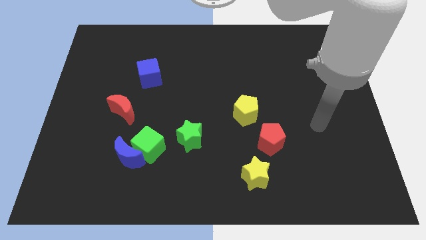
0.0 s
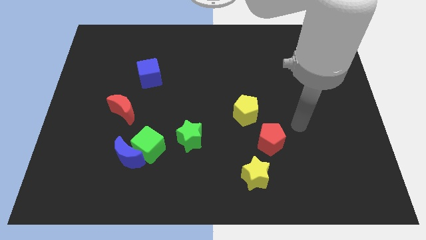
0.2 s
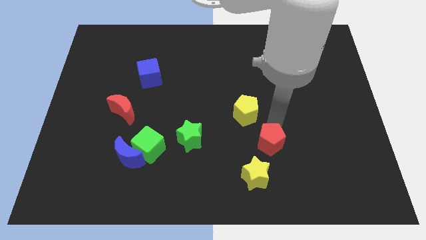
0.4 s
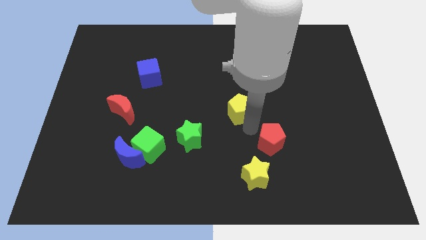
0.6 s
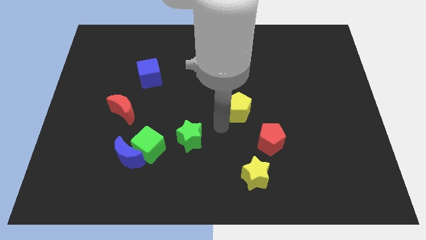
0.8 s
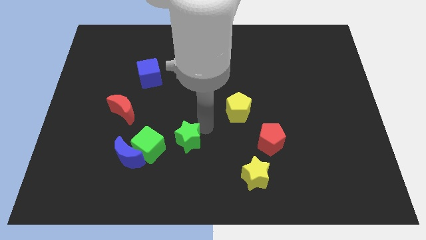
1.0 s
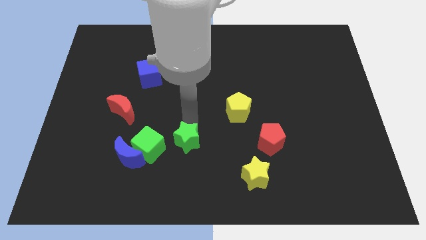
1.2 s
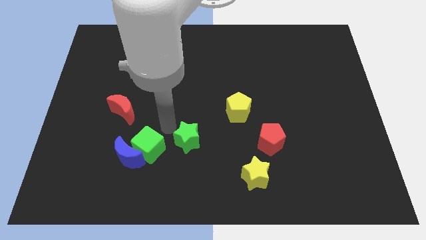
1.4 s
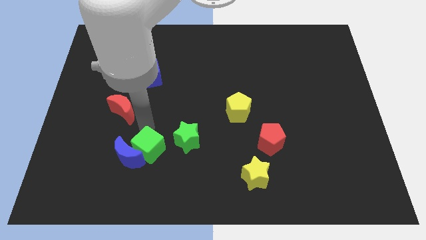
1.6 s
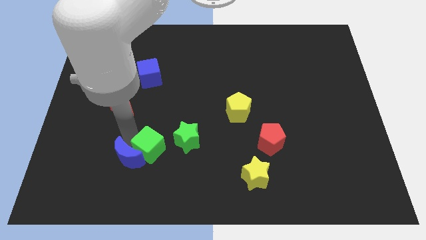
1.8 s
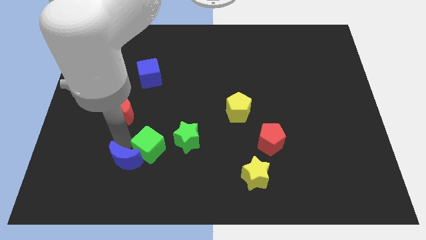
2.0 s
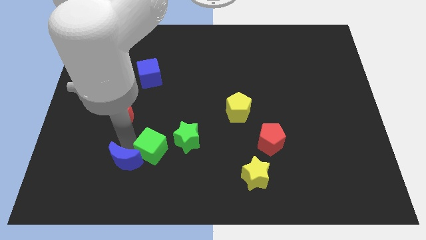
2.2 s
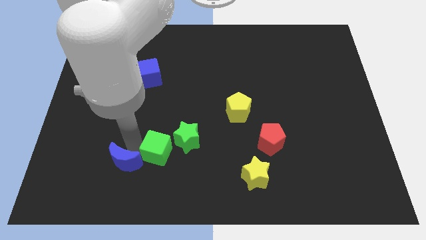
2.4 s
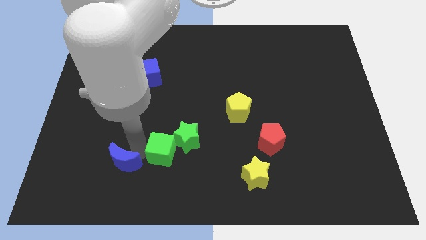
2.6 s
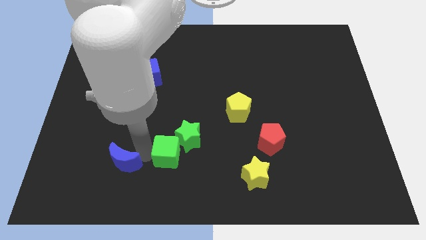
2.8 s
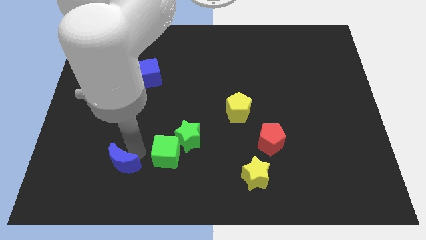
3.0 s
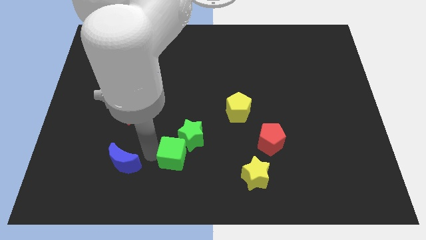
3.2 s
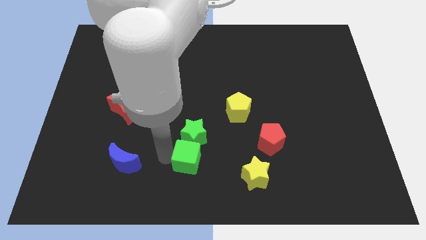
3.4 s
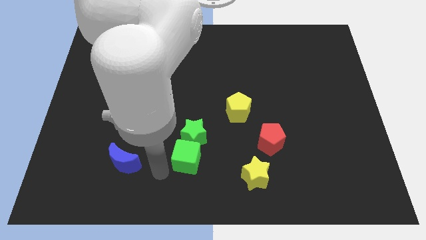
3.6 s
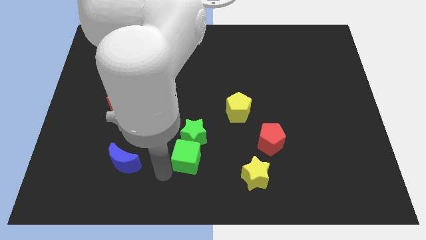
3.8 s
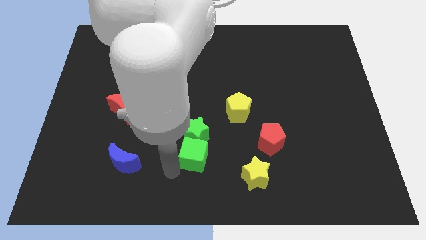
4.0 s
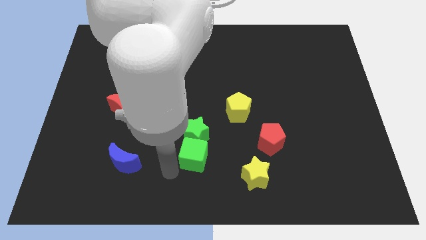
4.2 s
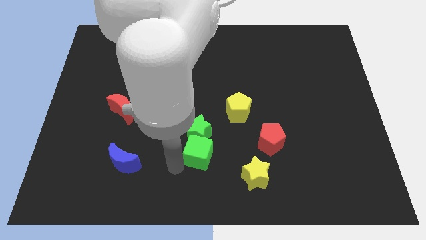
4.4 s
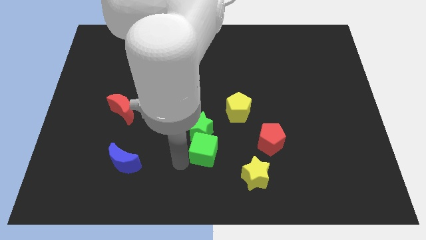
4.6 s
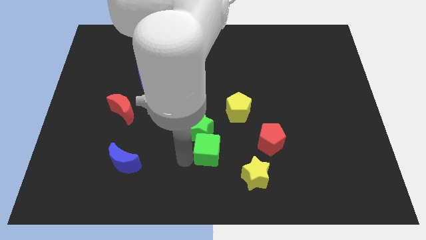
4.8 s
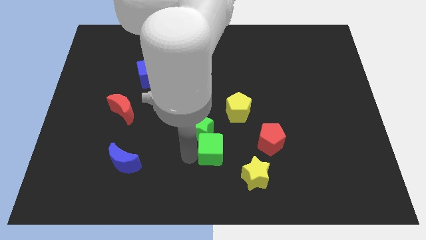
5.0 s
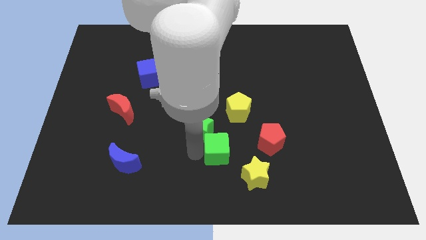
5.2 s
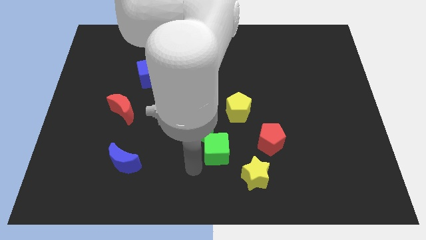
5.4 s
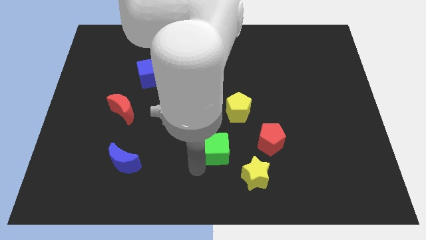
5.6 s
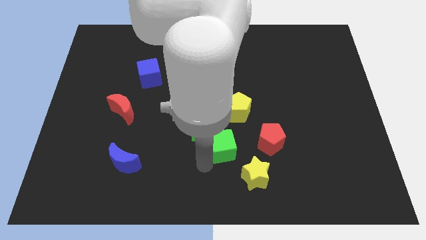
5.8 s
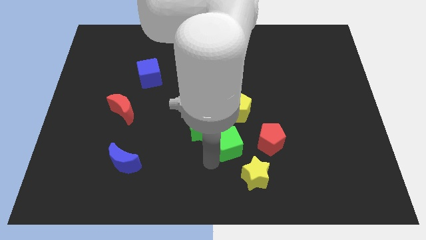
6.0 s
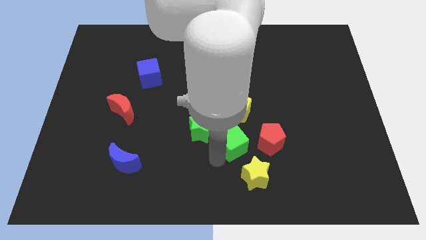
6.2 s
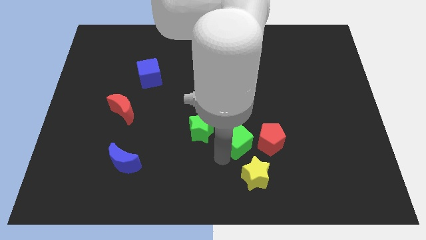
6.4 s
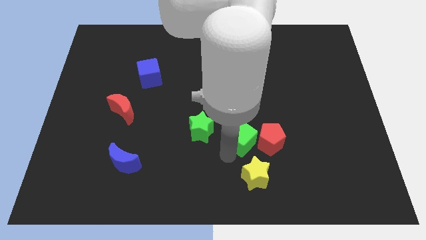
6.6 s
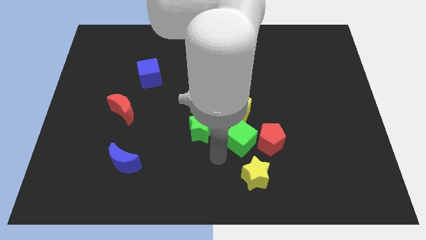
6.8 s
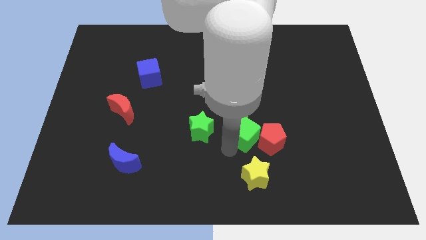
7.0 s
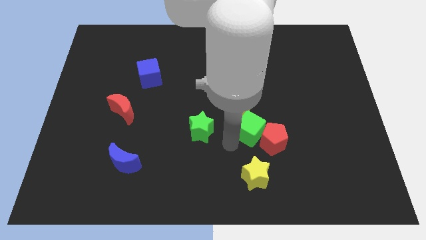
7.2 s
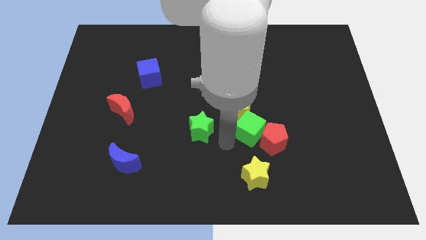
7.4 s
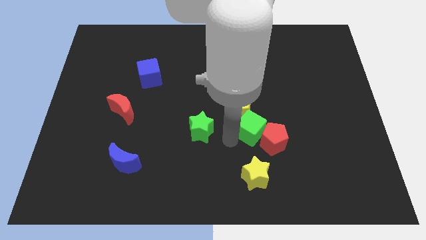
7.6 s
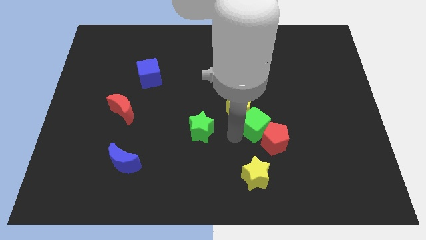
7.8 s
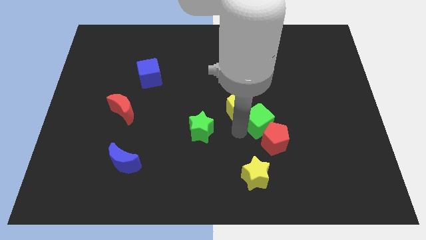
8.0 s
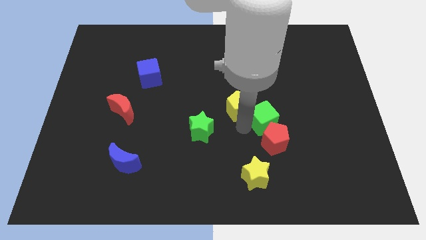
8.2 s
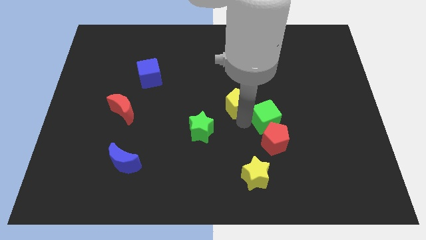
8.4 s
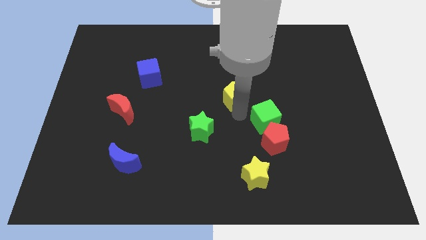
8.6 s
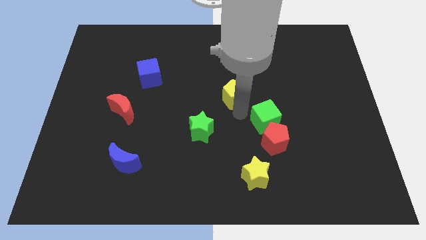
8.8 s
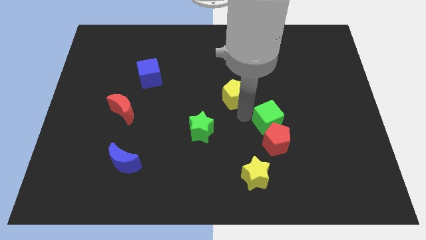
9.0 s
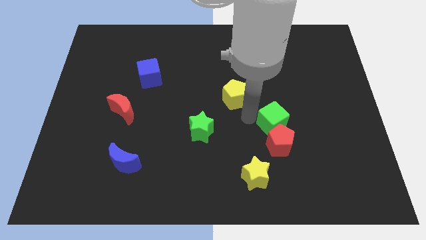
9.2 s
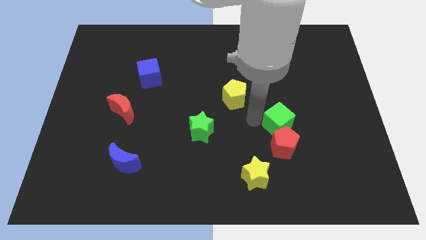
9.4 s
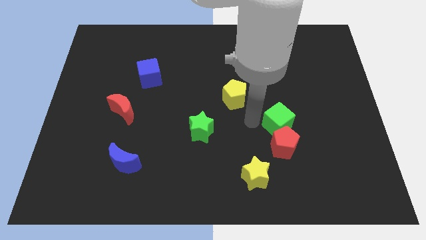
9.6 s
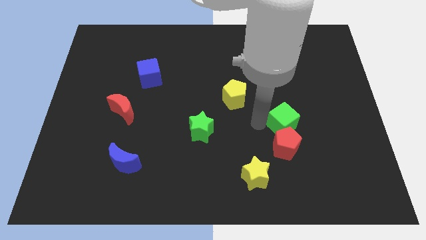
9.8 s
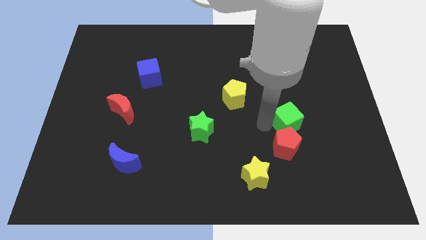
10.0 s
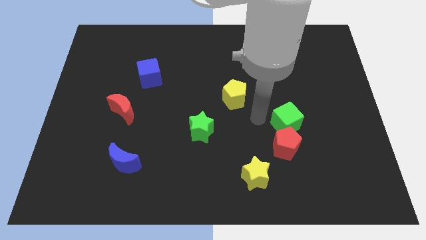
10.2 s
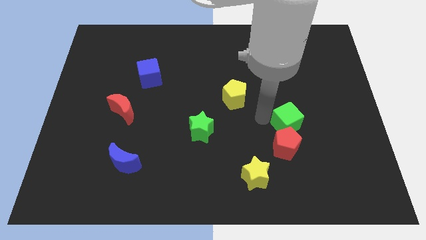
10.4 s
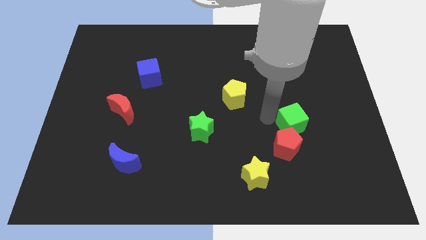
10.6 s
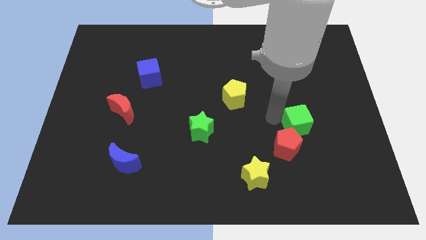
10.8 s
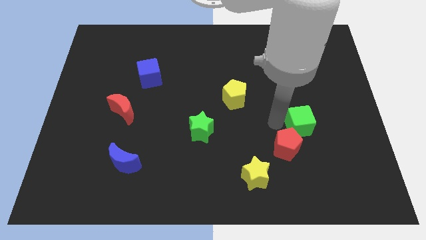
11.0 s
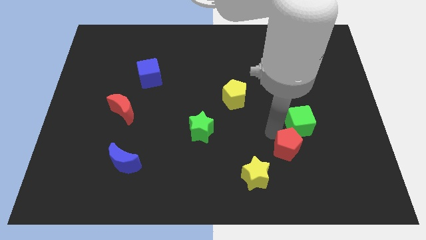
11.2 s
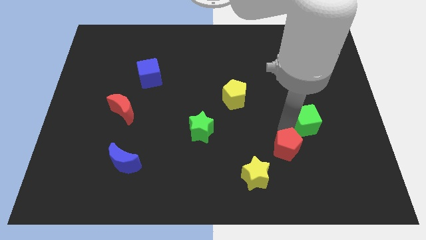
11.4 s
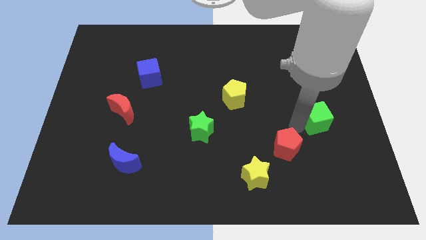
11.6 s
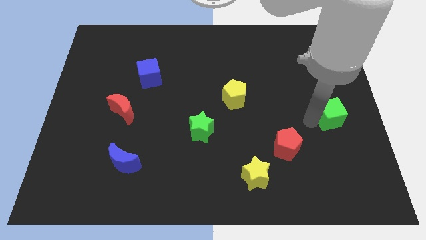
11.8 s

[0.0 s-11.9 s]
move the green cube to the right side of the board

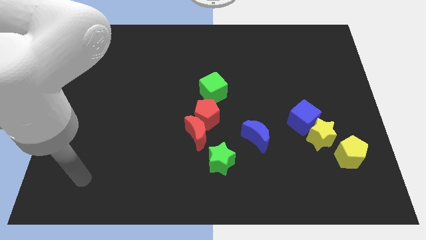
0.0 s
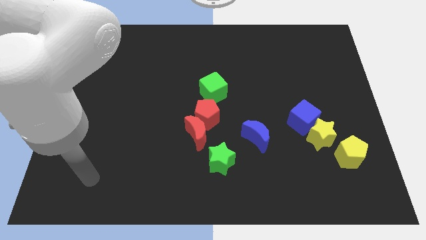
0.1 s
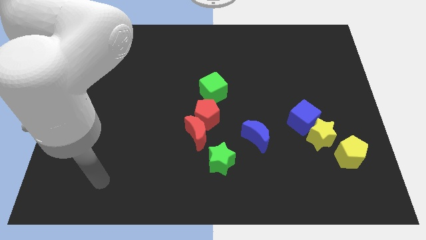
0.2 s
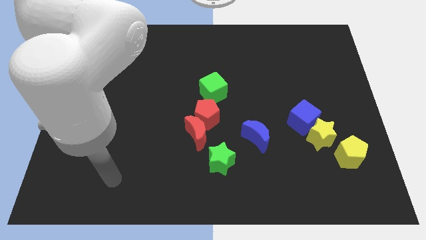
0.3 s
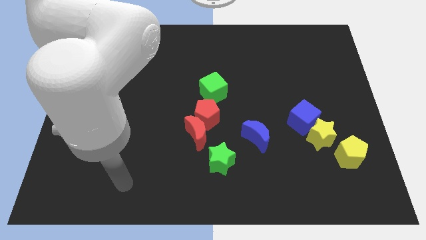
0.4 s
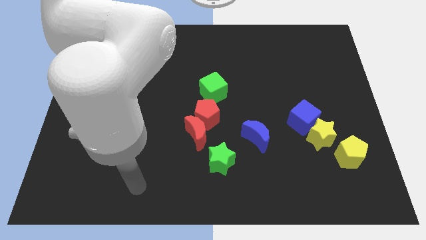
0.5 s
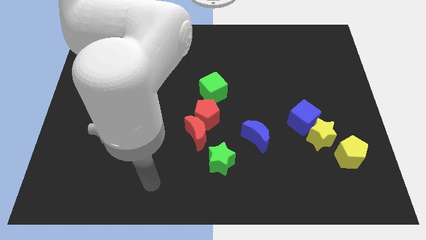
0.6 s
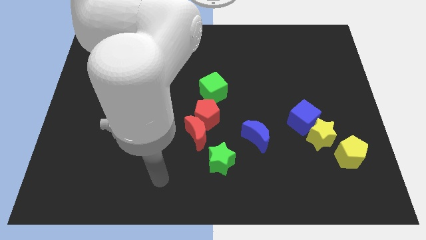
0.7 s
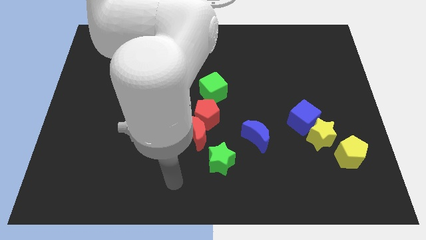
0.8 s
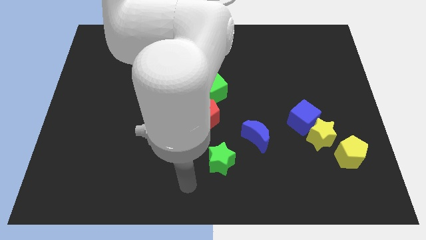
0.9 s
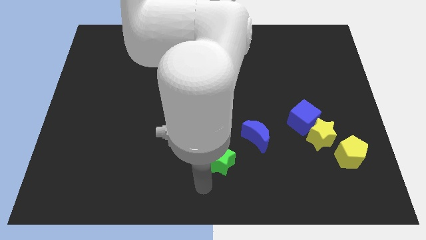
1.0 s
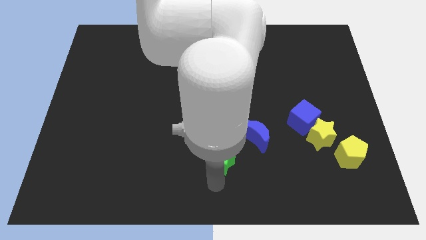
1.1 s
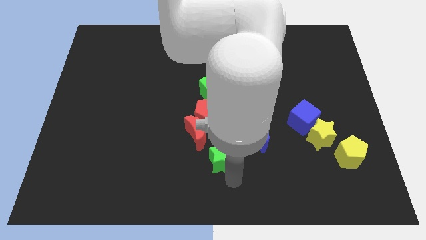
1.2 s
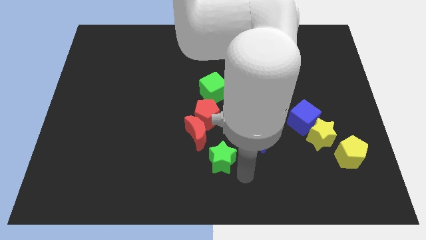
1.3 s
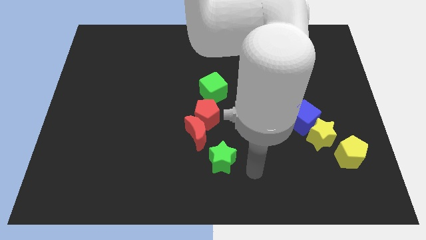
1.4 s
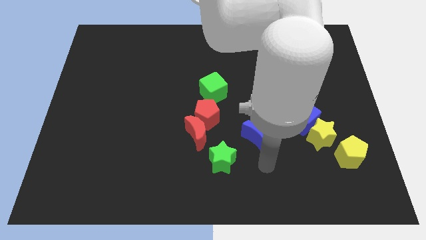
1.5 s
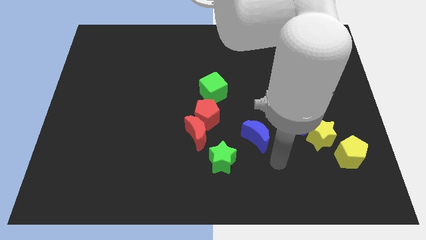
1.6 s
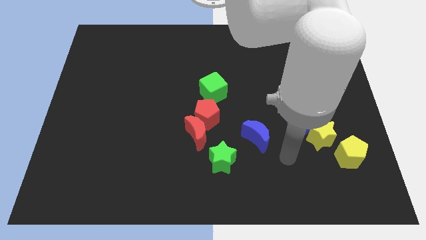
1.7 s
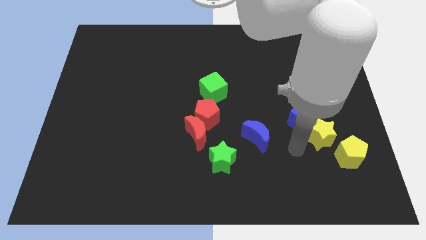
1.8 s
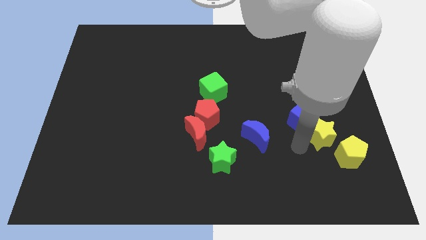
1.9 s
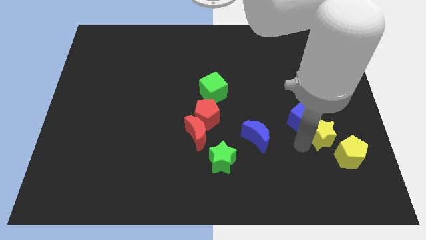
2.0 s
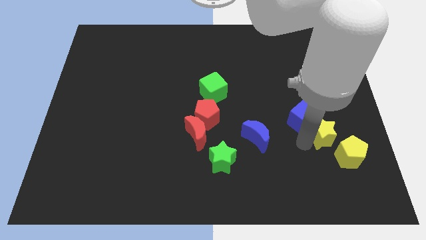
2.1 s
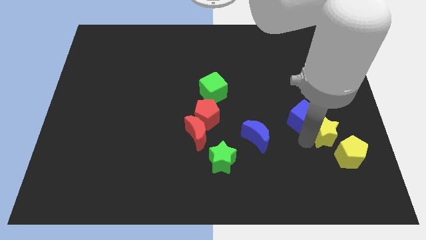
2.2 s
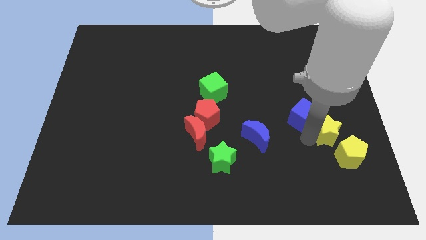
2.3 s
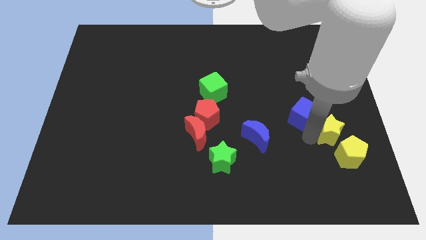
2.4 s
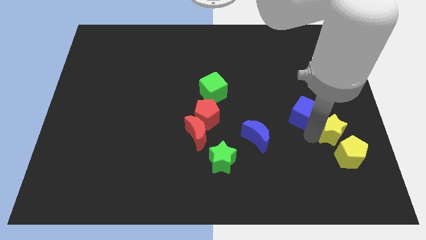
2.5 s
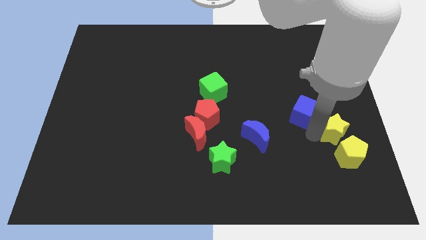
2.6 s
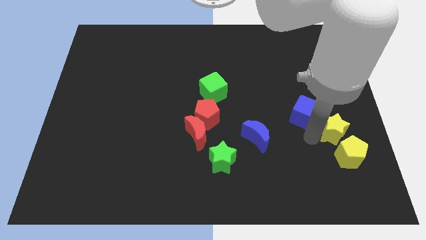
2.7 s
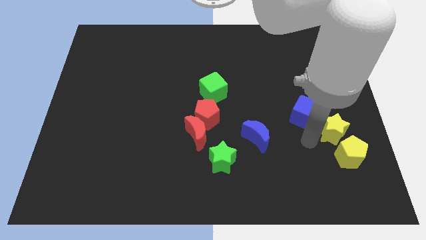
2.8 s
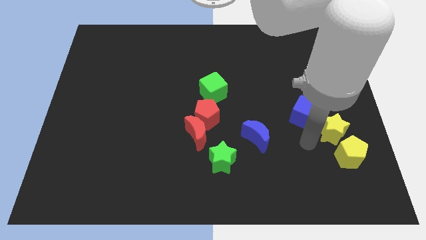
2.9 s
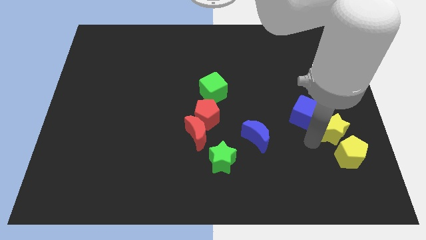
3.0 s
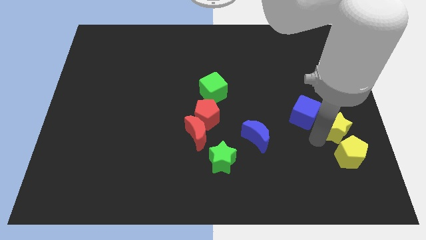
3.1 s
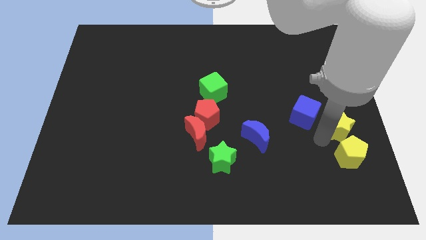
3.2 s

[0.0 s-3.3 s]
slide the yellow star to the center right
